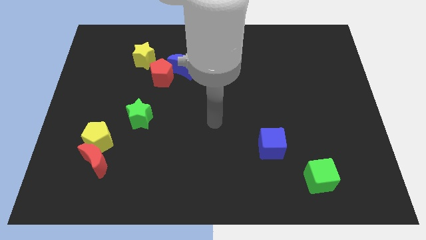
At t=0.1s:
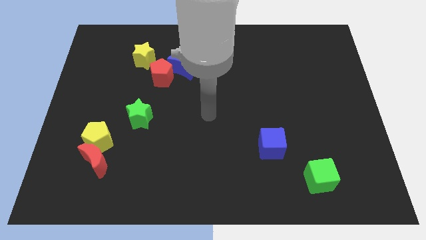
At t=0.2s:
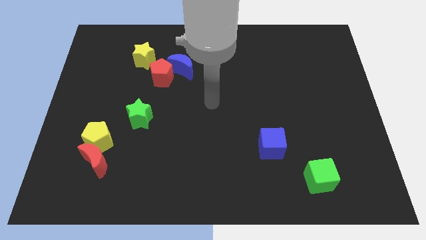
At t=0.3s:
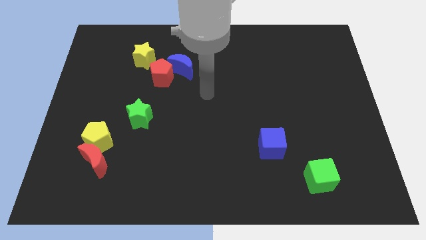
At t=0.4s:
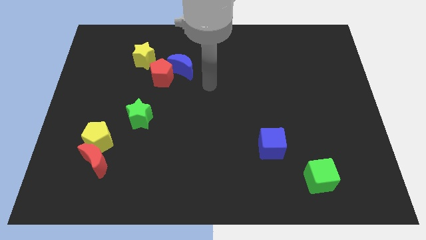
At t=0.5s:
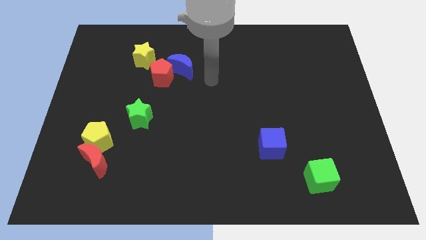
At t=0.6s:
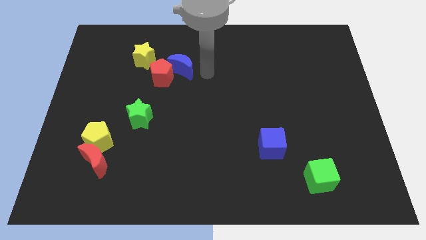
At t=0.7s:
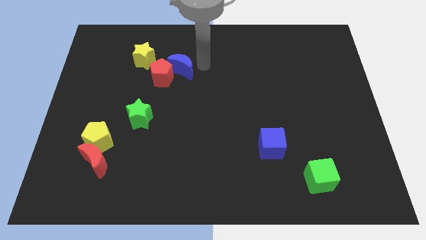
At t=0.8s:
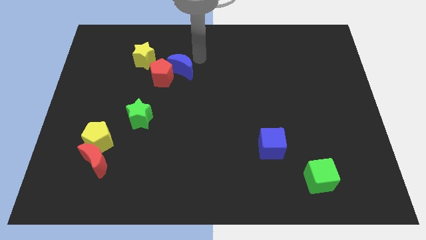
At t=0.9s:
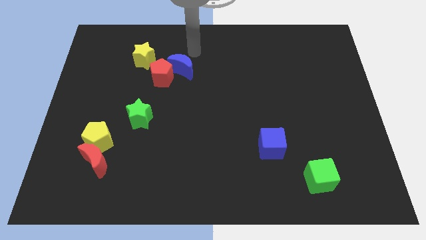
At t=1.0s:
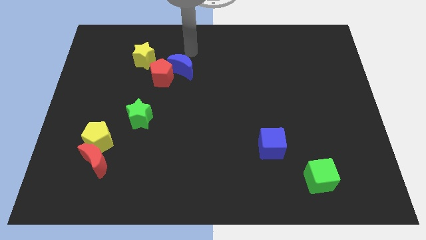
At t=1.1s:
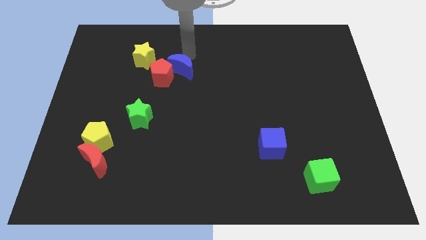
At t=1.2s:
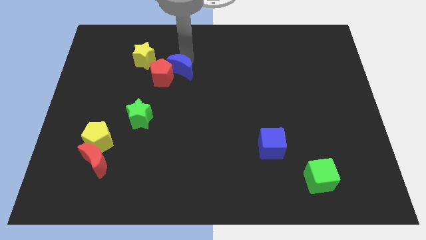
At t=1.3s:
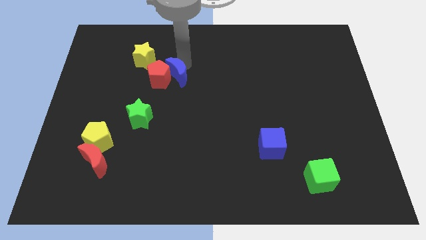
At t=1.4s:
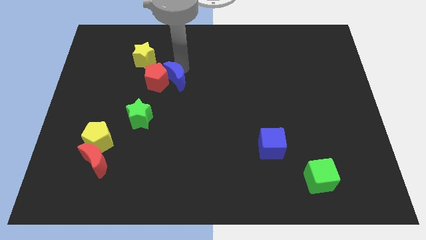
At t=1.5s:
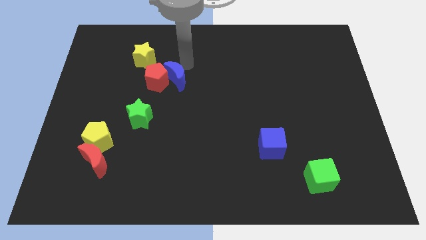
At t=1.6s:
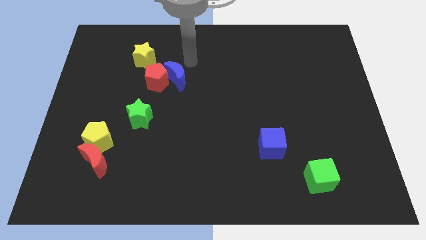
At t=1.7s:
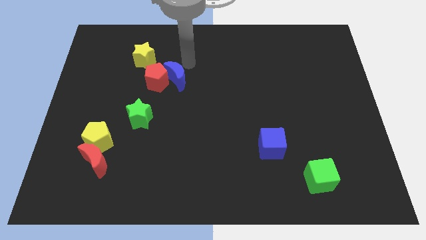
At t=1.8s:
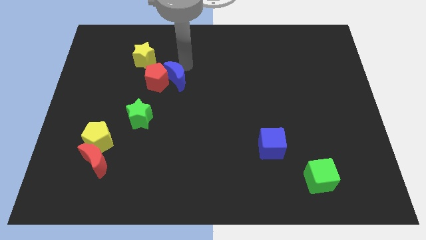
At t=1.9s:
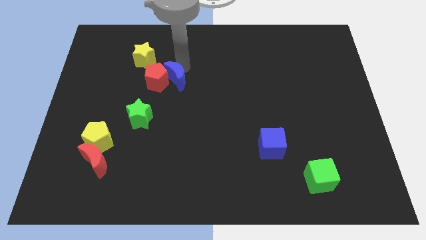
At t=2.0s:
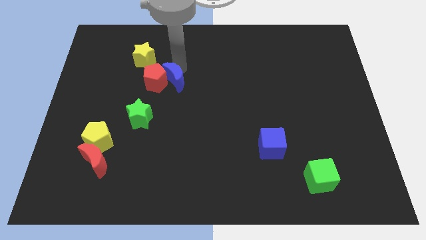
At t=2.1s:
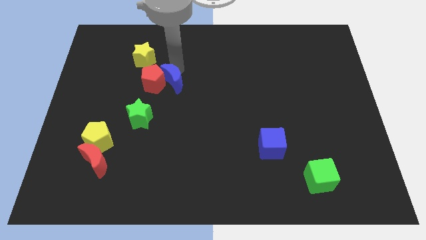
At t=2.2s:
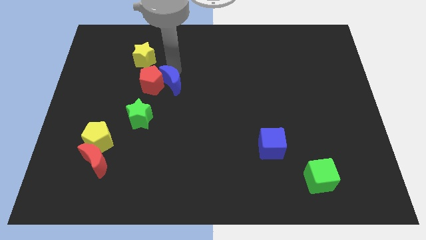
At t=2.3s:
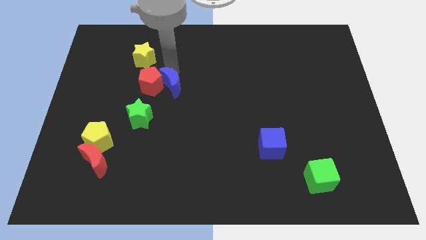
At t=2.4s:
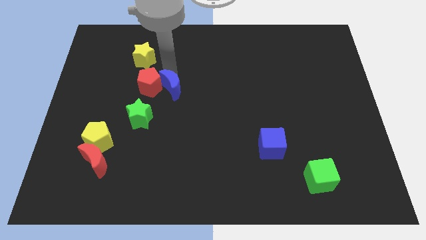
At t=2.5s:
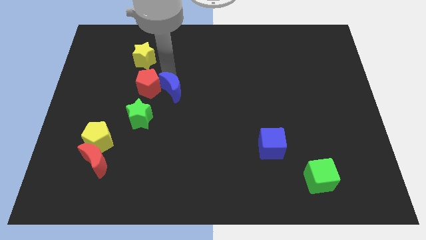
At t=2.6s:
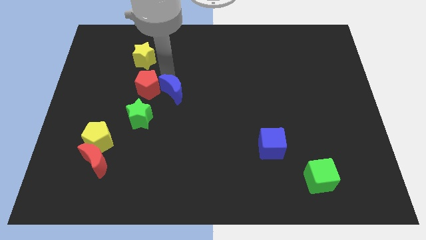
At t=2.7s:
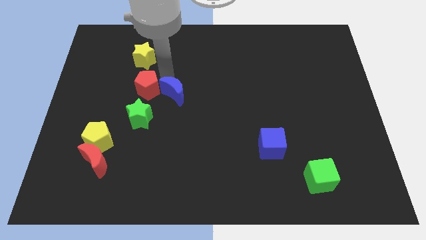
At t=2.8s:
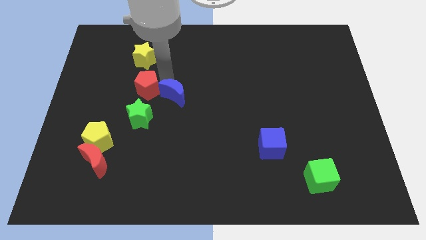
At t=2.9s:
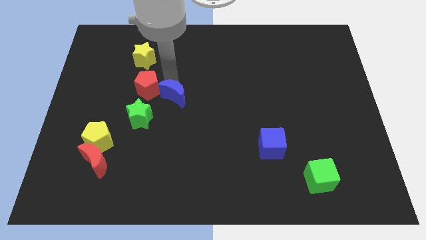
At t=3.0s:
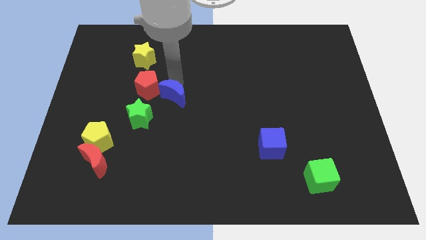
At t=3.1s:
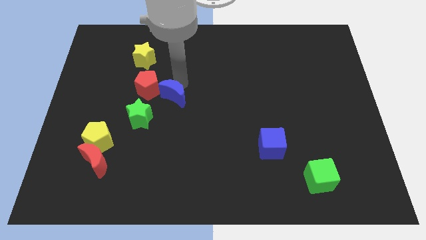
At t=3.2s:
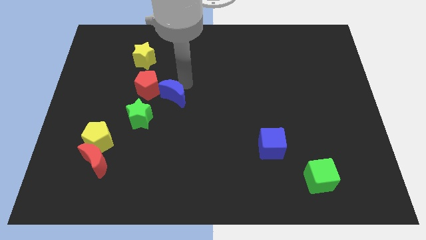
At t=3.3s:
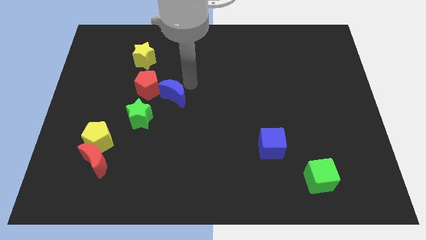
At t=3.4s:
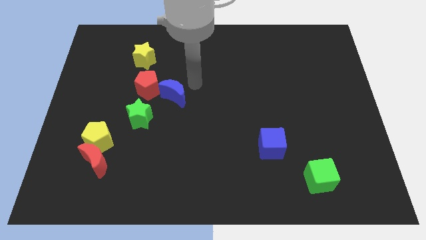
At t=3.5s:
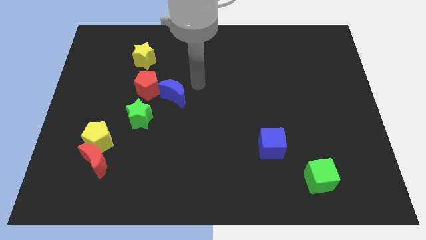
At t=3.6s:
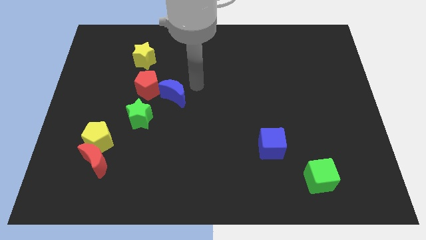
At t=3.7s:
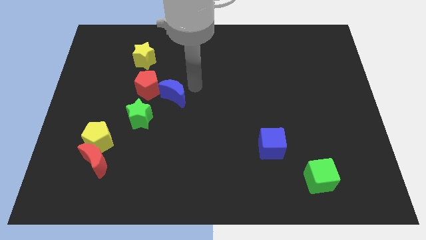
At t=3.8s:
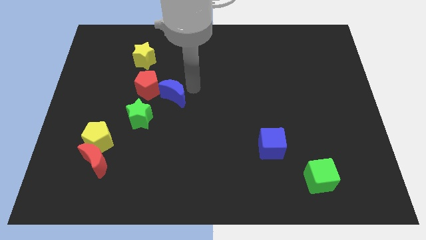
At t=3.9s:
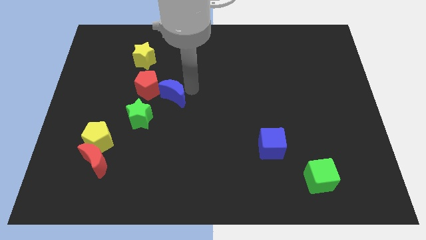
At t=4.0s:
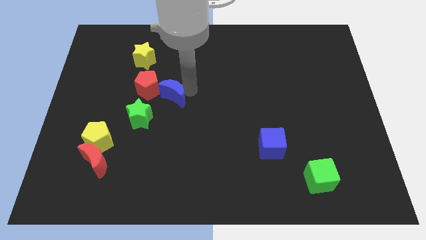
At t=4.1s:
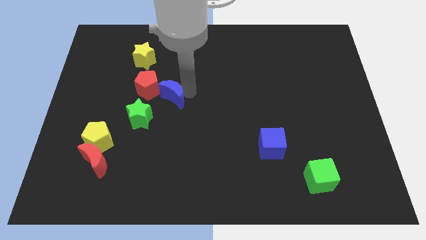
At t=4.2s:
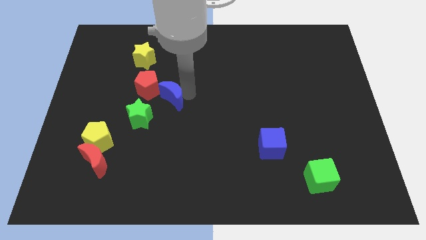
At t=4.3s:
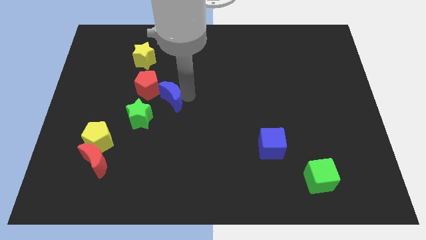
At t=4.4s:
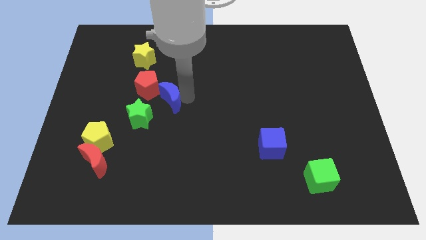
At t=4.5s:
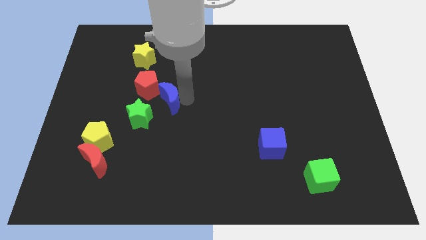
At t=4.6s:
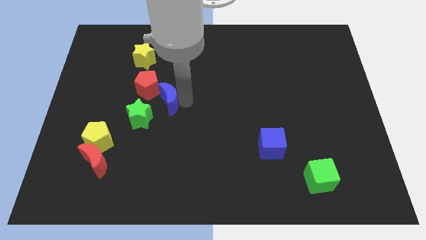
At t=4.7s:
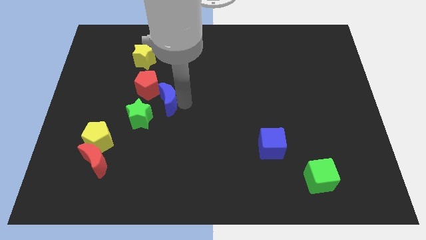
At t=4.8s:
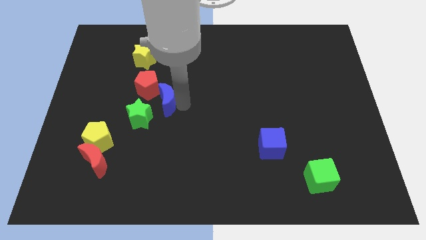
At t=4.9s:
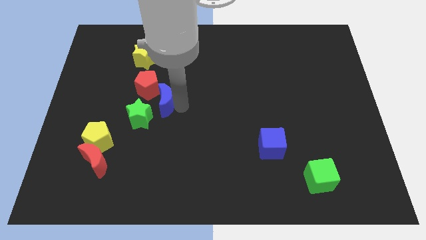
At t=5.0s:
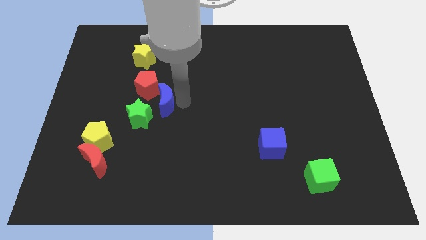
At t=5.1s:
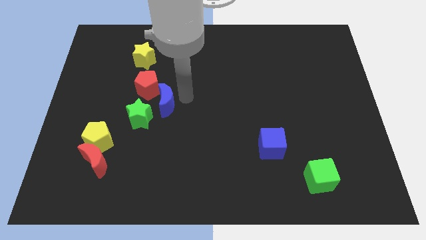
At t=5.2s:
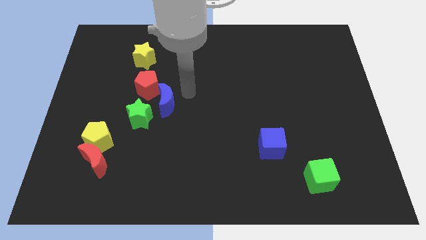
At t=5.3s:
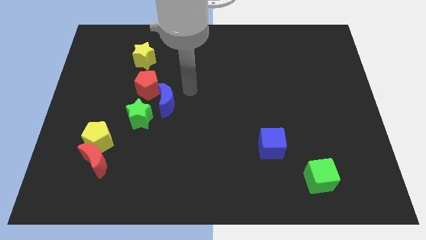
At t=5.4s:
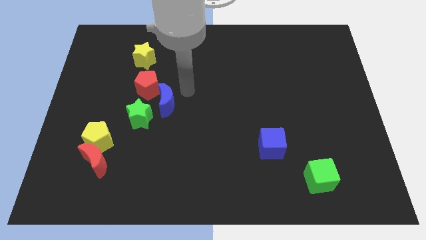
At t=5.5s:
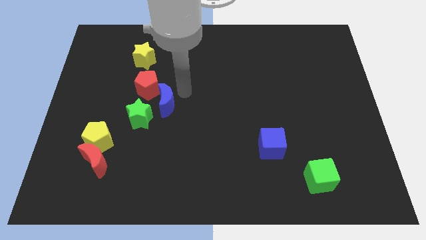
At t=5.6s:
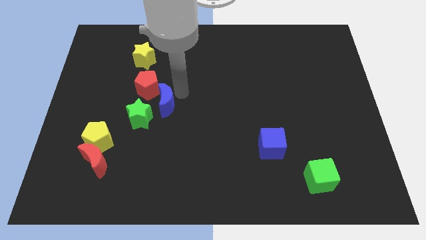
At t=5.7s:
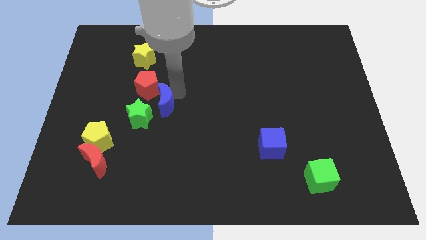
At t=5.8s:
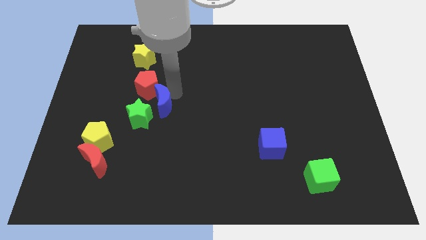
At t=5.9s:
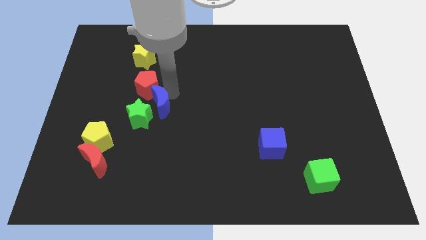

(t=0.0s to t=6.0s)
put the blue moon to the green star

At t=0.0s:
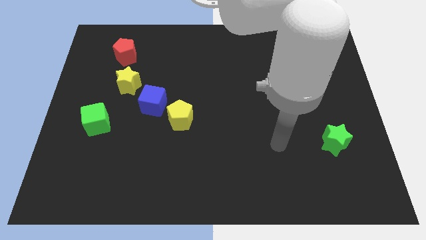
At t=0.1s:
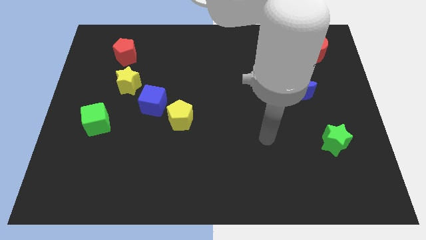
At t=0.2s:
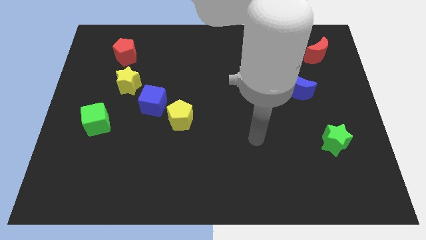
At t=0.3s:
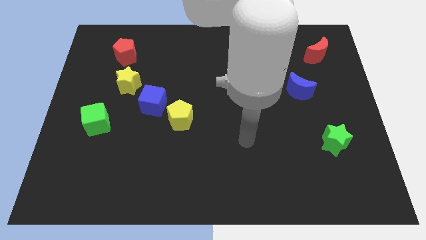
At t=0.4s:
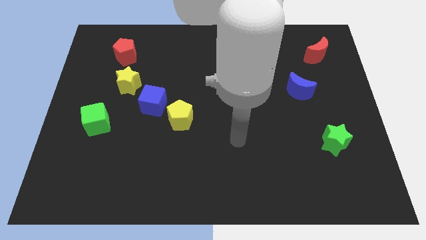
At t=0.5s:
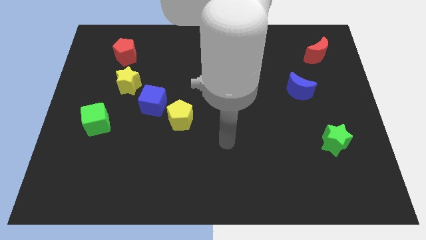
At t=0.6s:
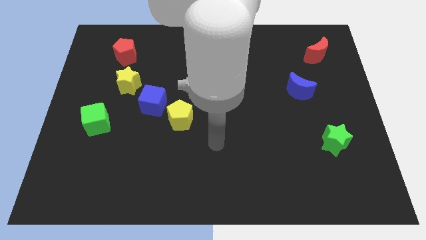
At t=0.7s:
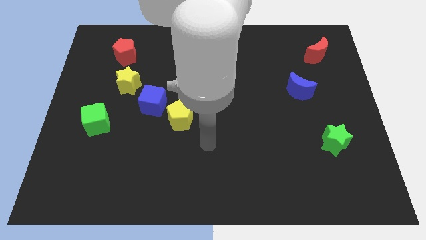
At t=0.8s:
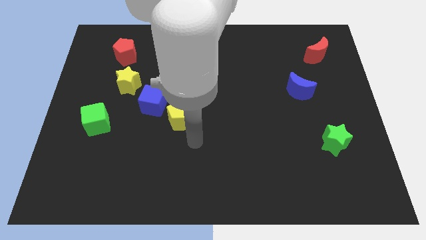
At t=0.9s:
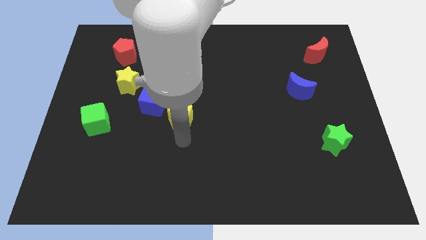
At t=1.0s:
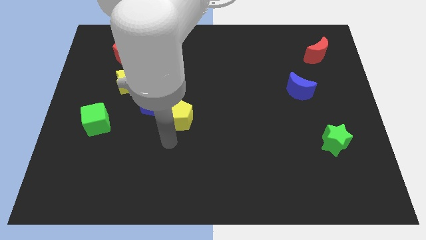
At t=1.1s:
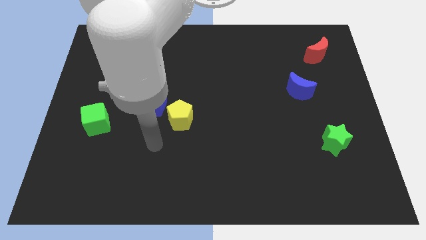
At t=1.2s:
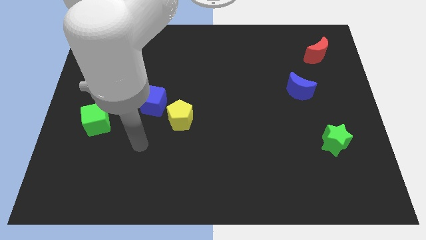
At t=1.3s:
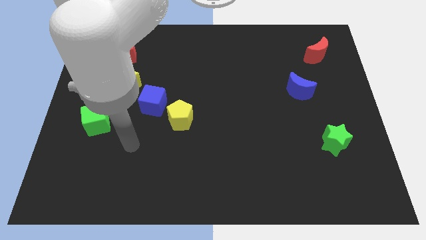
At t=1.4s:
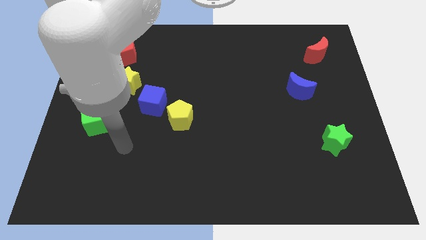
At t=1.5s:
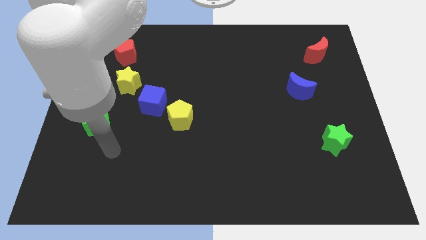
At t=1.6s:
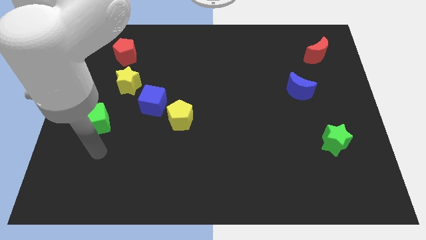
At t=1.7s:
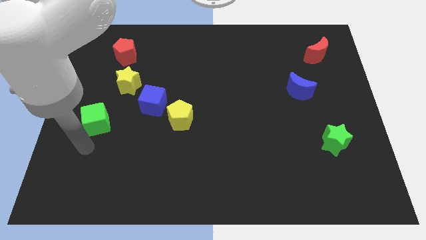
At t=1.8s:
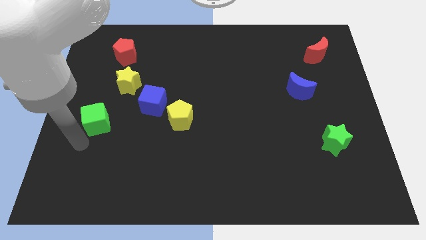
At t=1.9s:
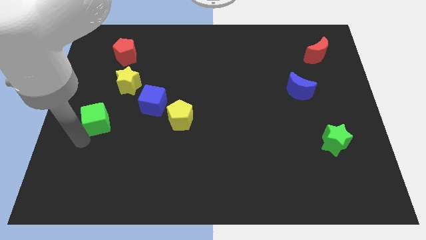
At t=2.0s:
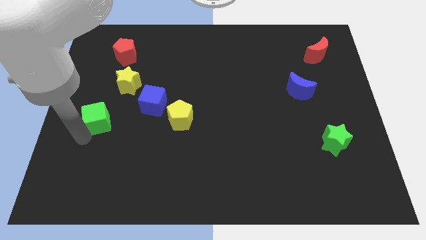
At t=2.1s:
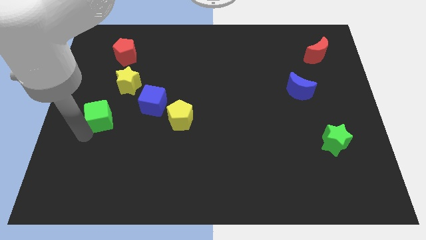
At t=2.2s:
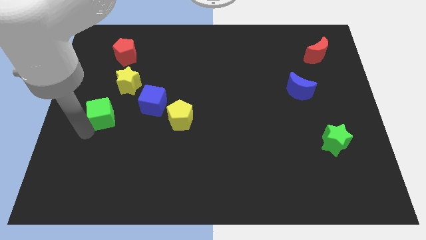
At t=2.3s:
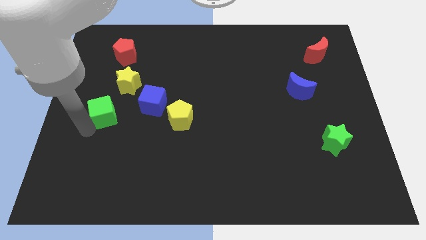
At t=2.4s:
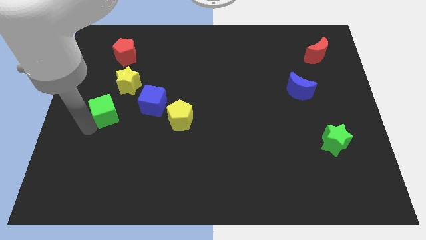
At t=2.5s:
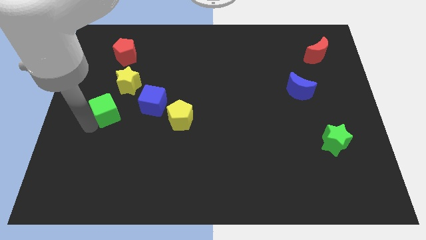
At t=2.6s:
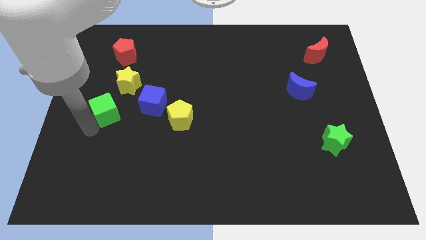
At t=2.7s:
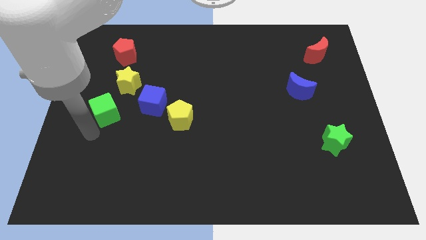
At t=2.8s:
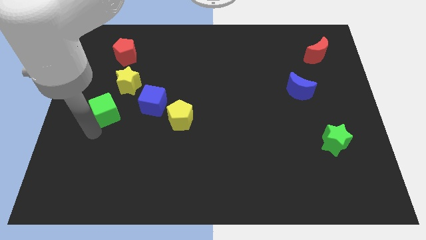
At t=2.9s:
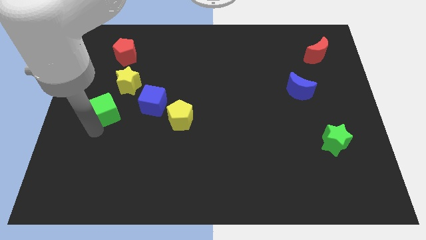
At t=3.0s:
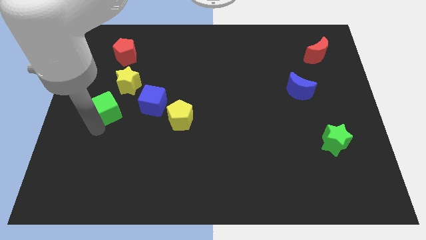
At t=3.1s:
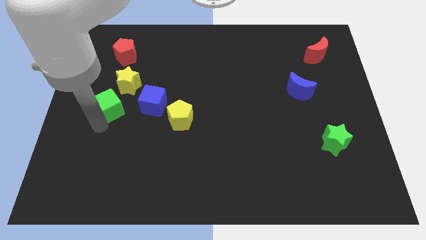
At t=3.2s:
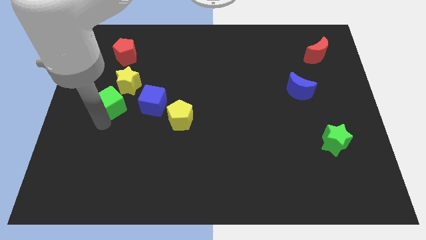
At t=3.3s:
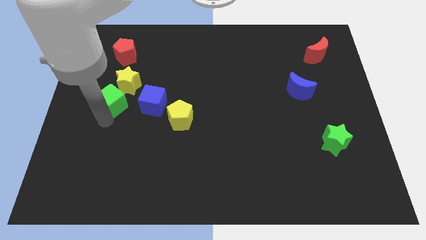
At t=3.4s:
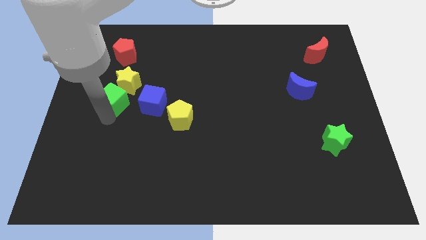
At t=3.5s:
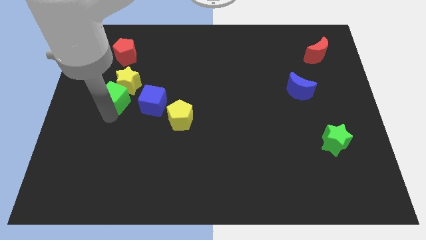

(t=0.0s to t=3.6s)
move the green cube to the yellow star
